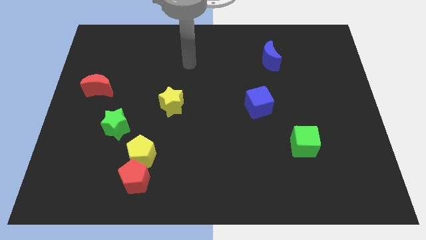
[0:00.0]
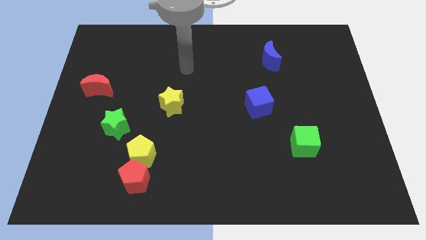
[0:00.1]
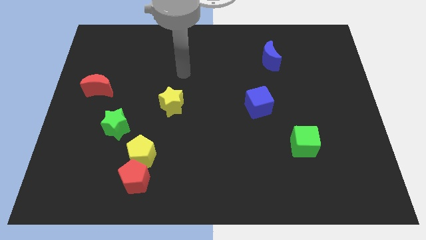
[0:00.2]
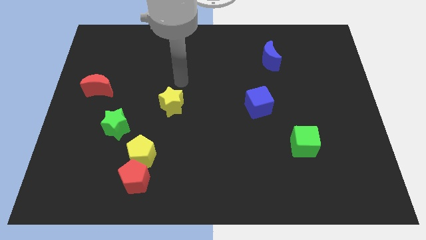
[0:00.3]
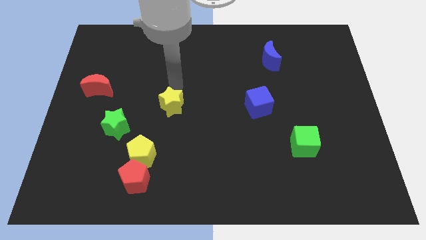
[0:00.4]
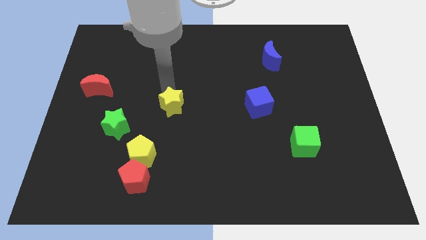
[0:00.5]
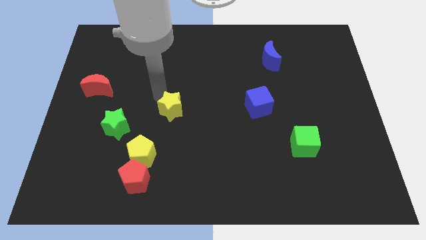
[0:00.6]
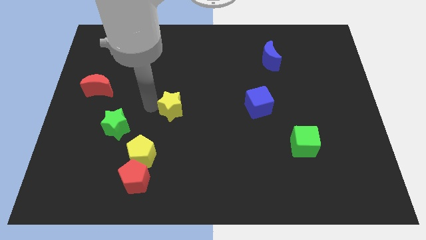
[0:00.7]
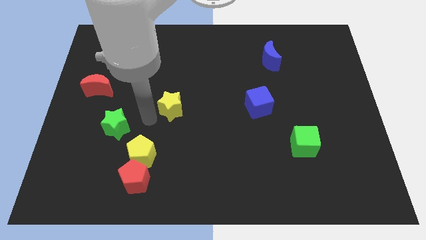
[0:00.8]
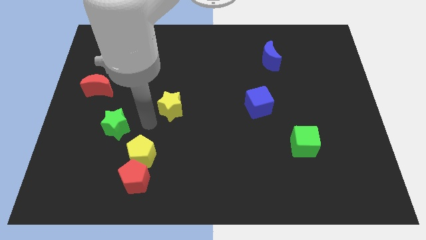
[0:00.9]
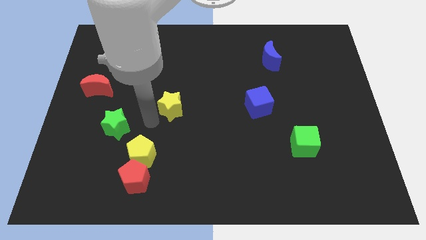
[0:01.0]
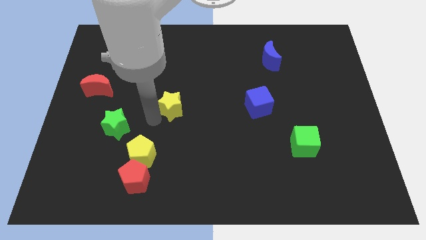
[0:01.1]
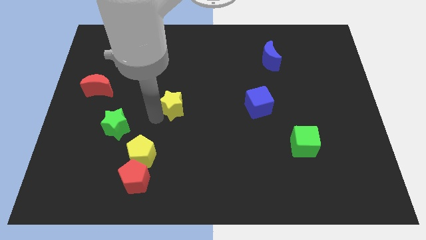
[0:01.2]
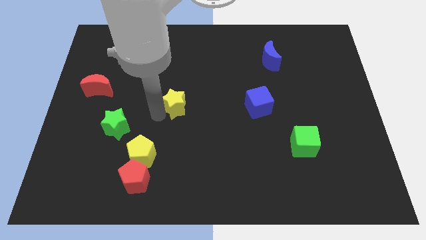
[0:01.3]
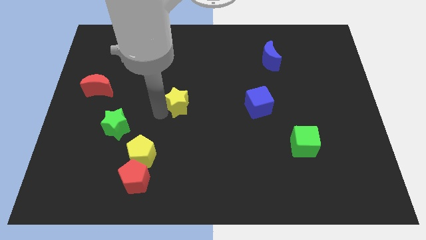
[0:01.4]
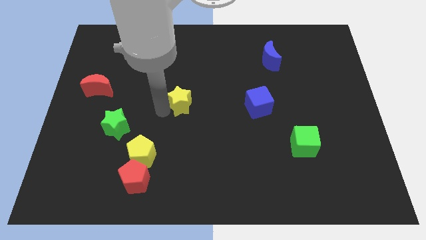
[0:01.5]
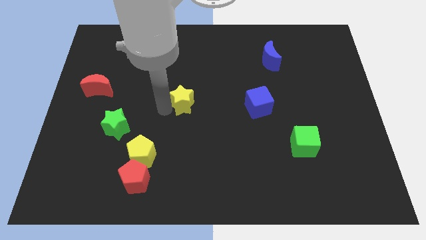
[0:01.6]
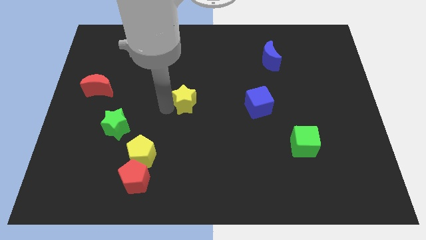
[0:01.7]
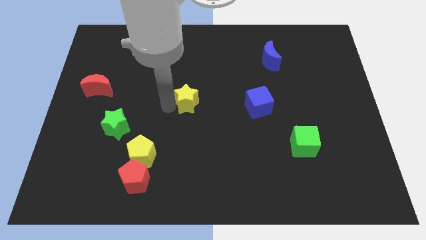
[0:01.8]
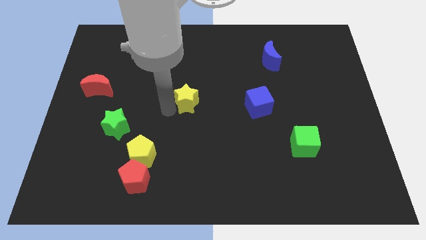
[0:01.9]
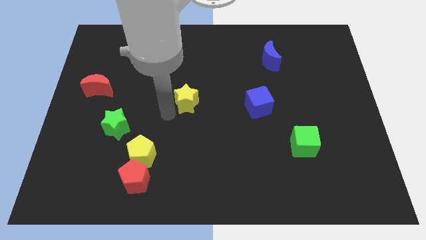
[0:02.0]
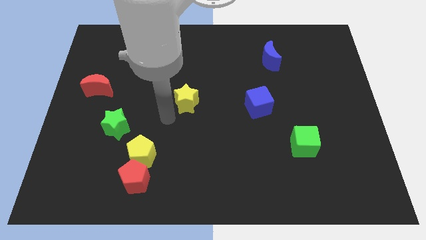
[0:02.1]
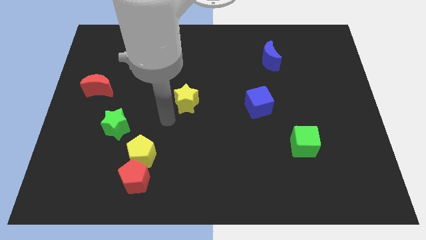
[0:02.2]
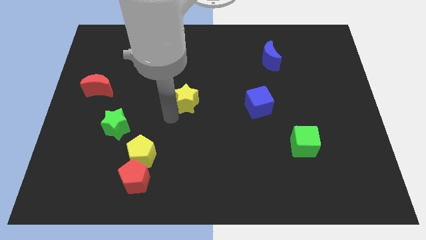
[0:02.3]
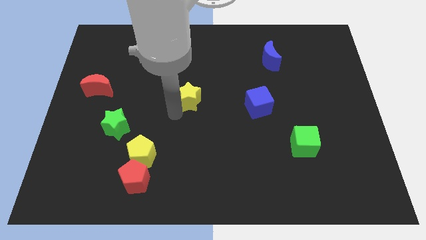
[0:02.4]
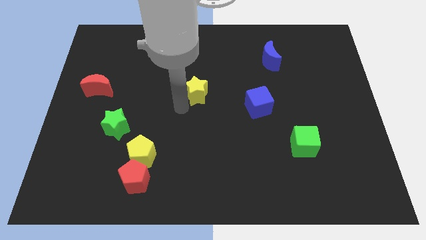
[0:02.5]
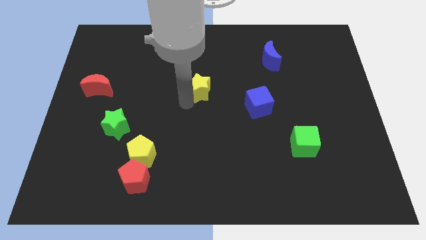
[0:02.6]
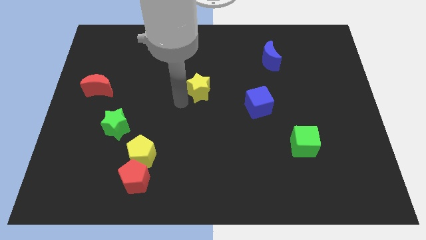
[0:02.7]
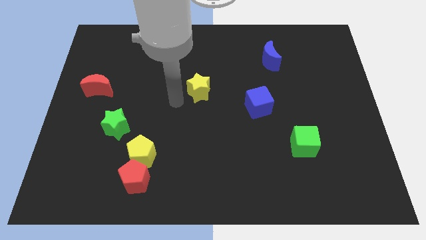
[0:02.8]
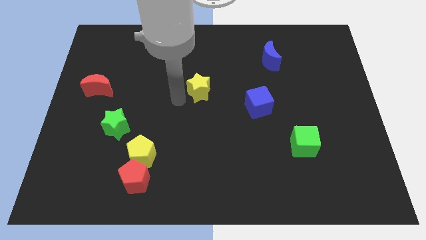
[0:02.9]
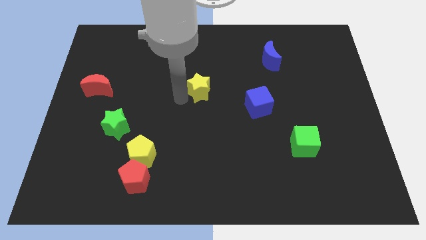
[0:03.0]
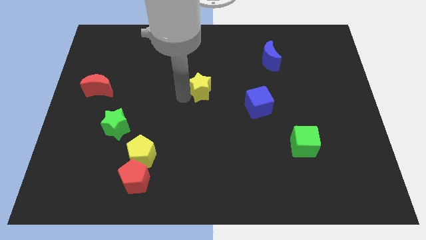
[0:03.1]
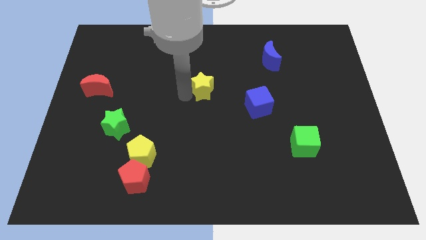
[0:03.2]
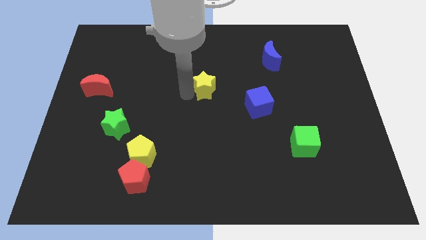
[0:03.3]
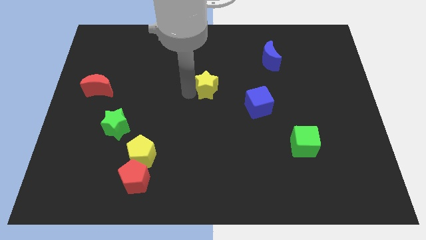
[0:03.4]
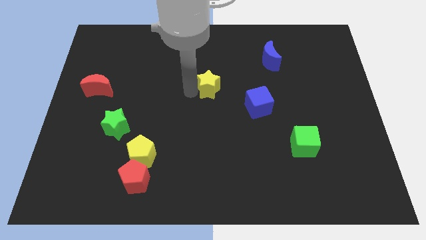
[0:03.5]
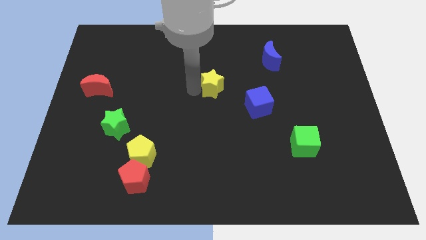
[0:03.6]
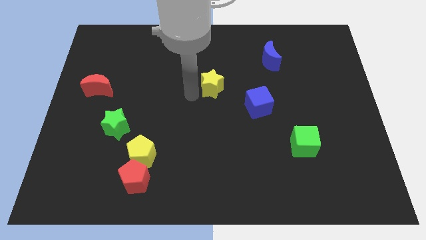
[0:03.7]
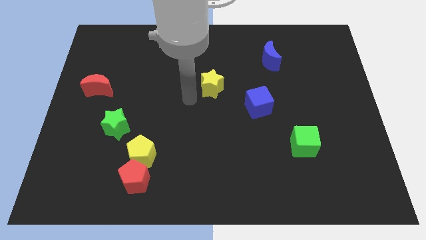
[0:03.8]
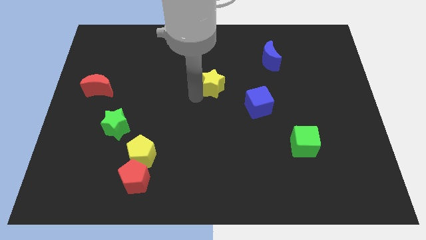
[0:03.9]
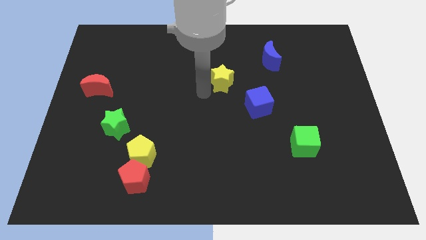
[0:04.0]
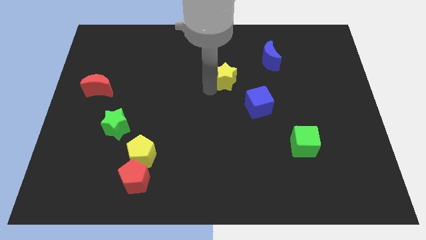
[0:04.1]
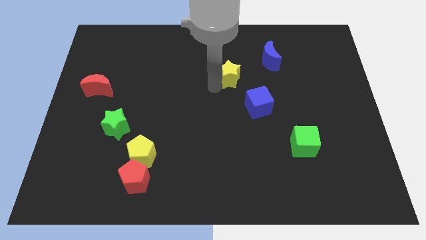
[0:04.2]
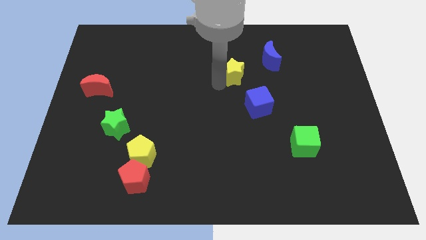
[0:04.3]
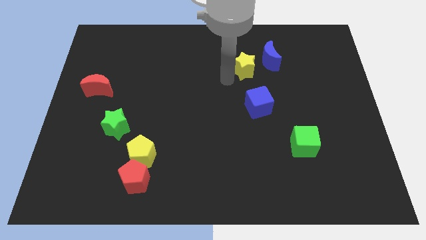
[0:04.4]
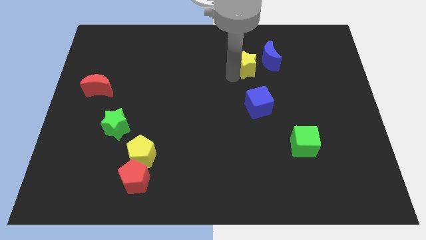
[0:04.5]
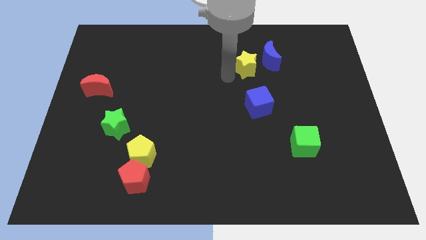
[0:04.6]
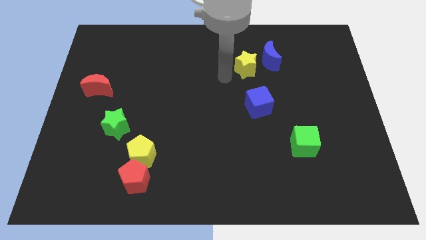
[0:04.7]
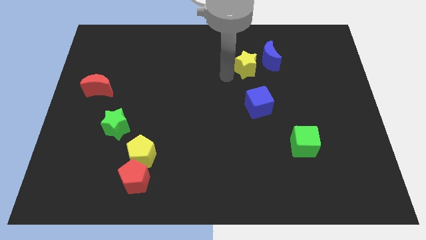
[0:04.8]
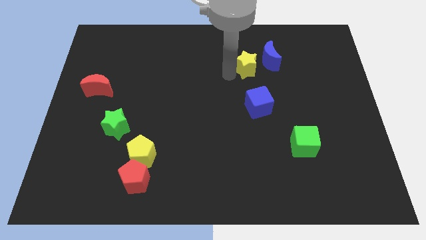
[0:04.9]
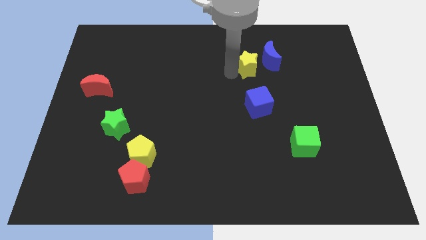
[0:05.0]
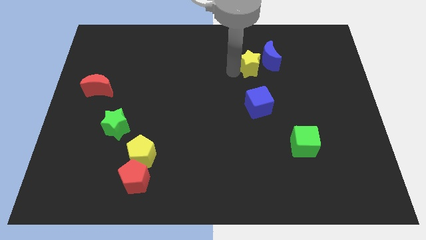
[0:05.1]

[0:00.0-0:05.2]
move the yellow star to the blue moon

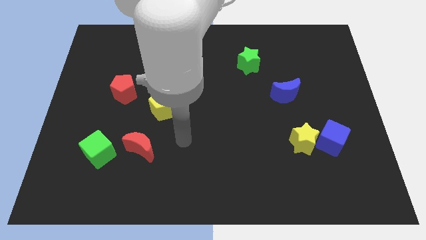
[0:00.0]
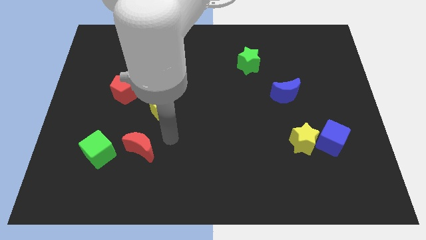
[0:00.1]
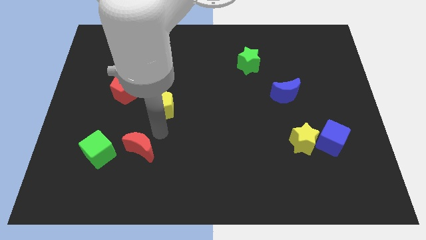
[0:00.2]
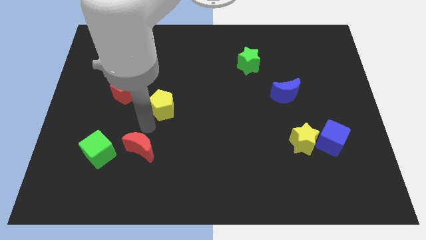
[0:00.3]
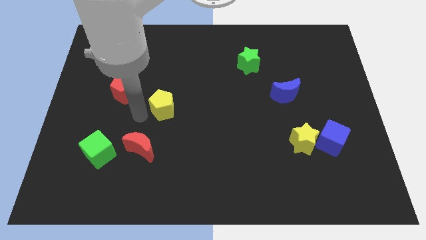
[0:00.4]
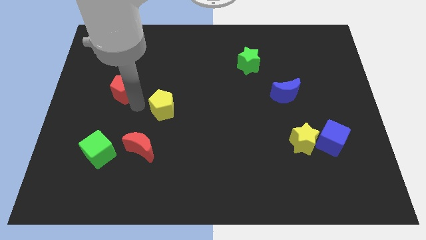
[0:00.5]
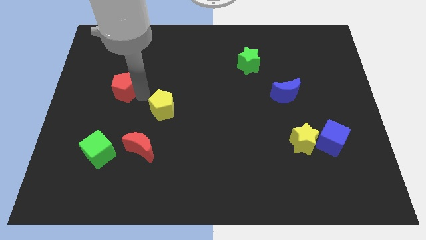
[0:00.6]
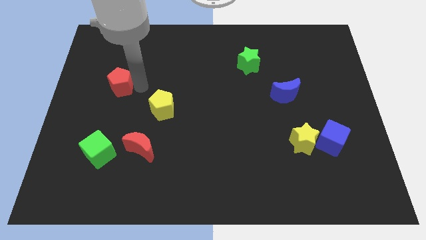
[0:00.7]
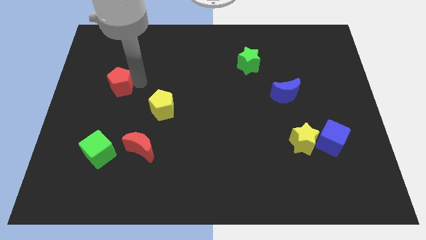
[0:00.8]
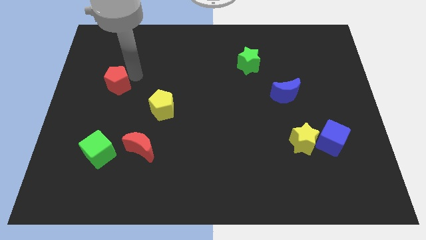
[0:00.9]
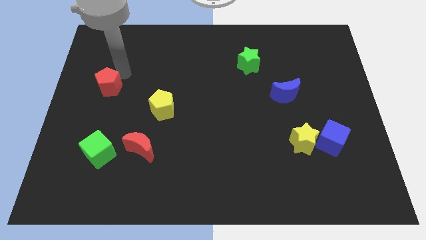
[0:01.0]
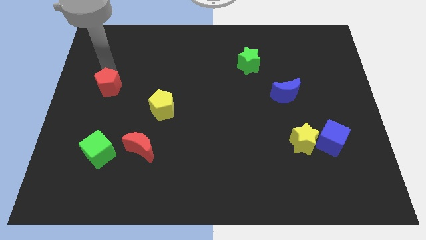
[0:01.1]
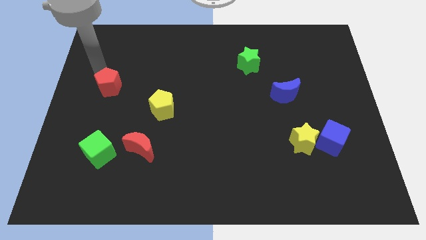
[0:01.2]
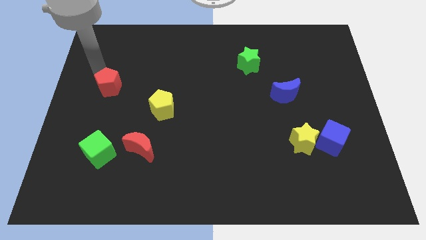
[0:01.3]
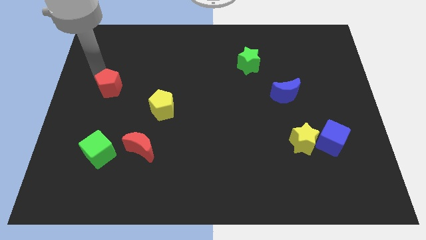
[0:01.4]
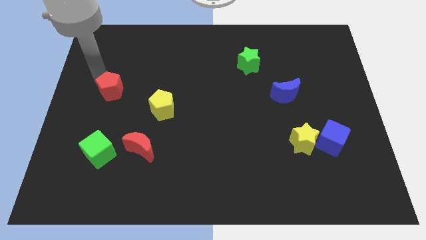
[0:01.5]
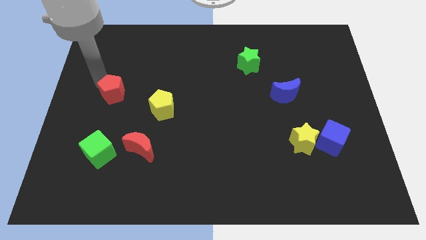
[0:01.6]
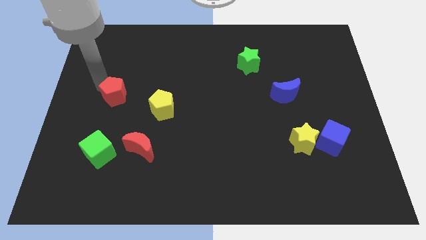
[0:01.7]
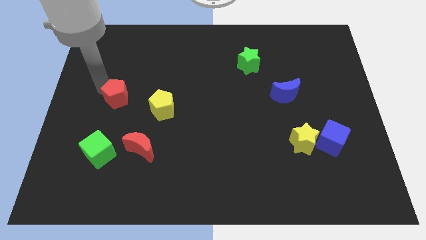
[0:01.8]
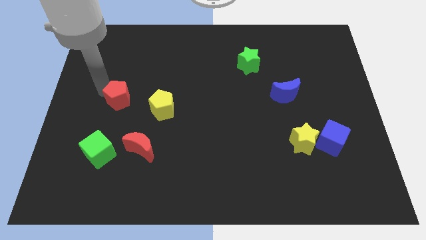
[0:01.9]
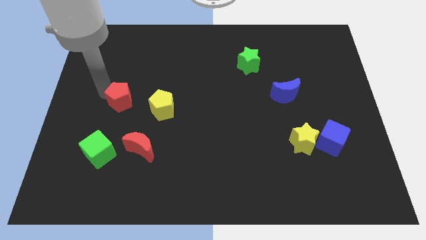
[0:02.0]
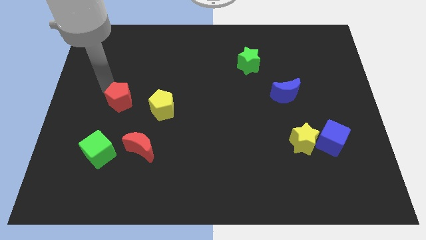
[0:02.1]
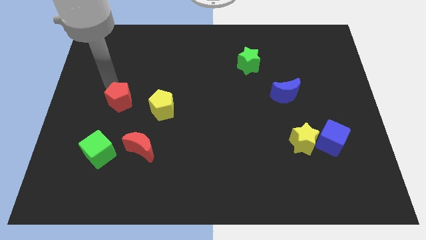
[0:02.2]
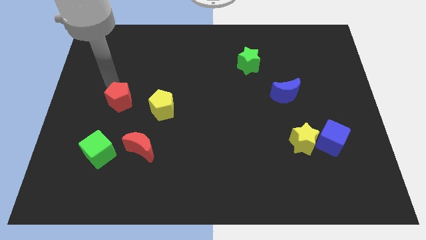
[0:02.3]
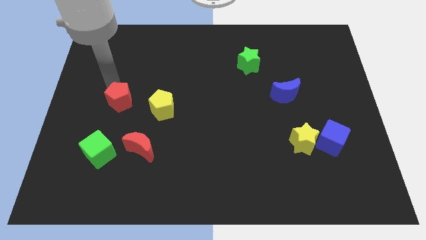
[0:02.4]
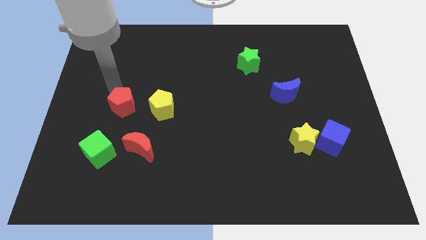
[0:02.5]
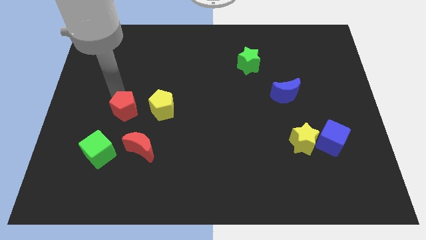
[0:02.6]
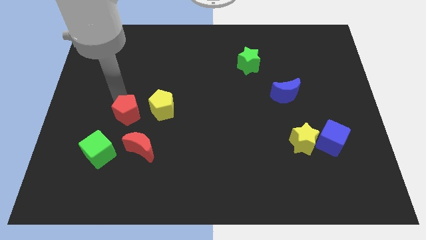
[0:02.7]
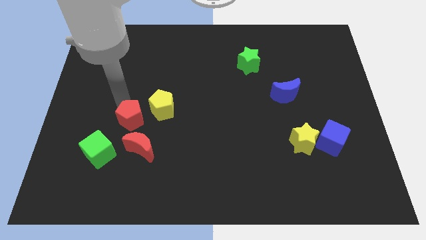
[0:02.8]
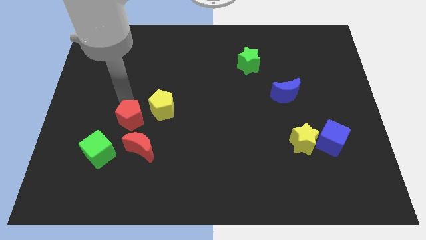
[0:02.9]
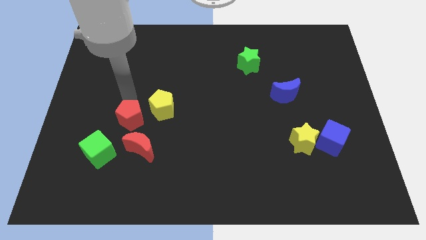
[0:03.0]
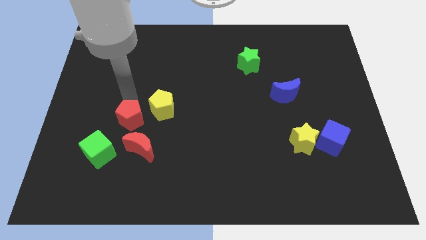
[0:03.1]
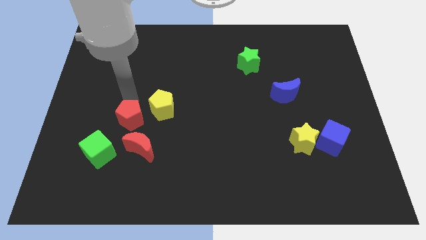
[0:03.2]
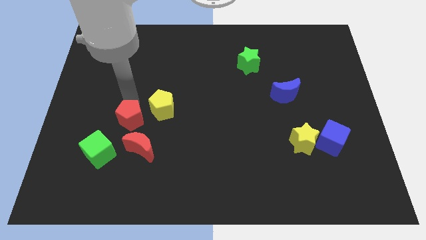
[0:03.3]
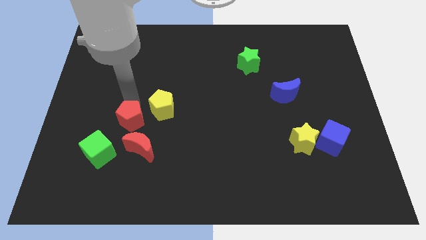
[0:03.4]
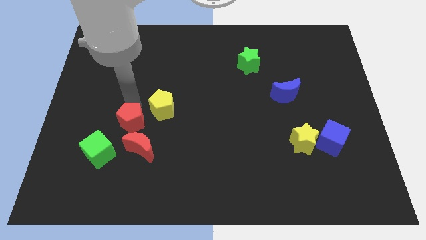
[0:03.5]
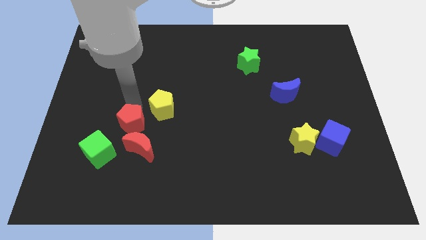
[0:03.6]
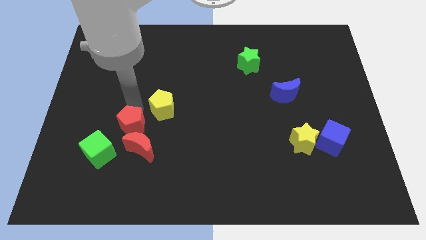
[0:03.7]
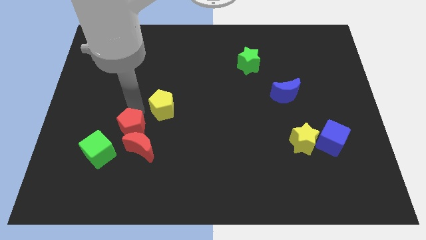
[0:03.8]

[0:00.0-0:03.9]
slide the red pentagon close to the red moon
